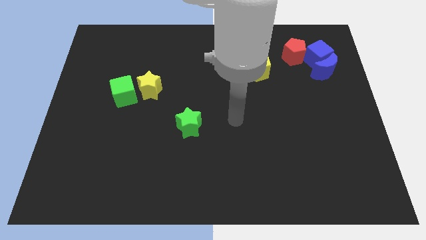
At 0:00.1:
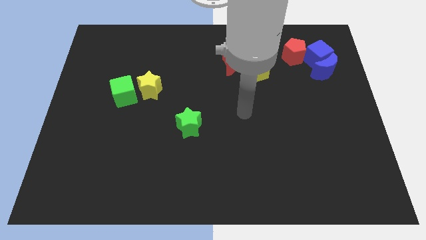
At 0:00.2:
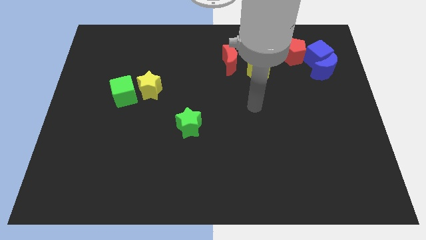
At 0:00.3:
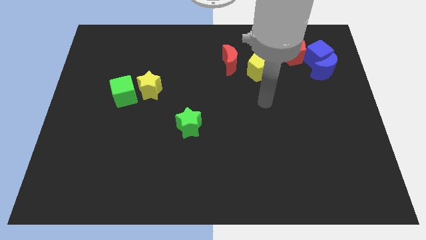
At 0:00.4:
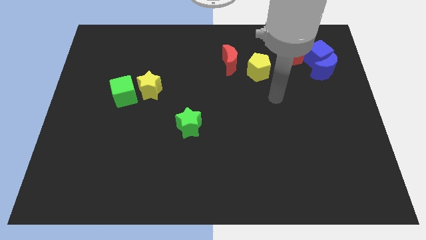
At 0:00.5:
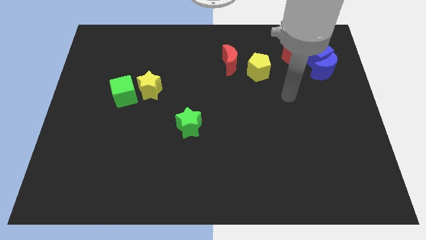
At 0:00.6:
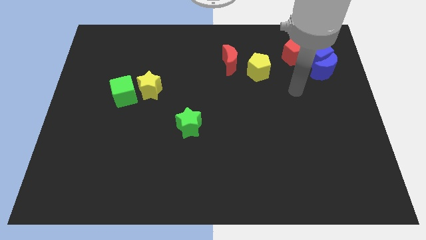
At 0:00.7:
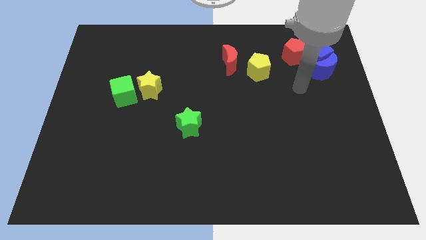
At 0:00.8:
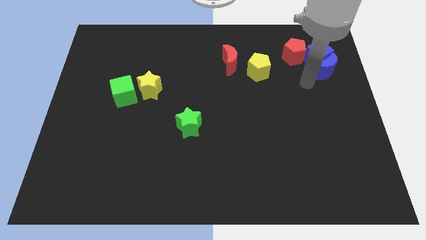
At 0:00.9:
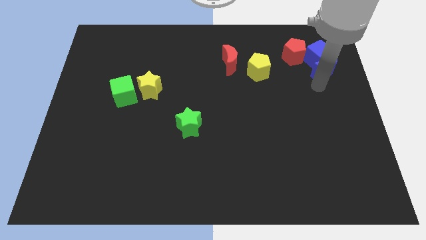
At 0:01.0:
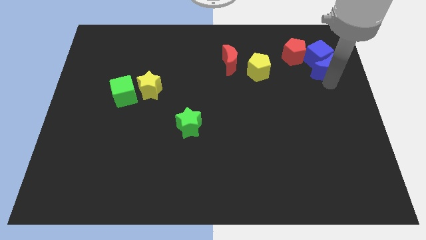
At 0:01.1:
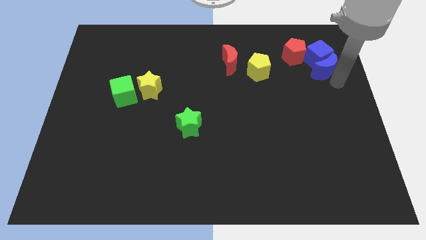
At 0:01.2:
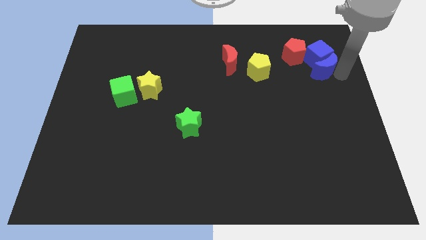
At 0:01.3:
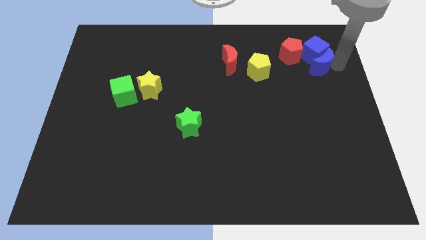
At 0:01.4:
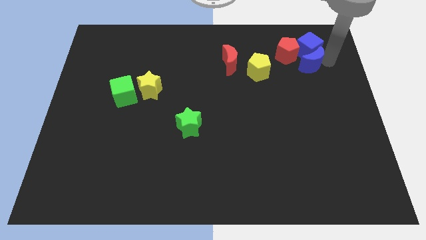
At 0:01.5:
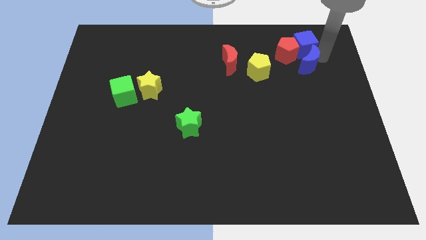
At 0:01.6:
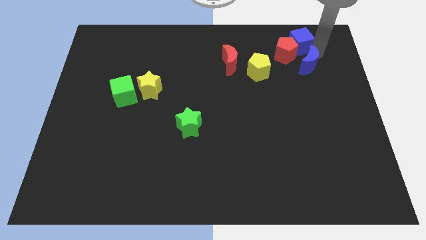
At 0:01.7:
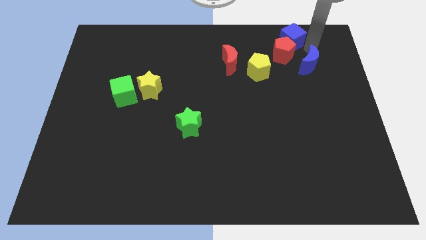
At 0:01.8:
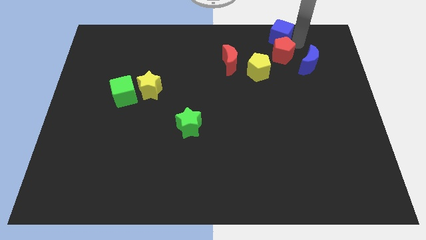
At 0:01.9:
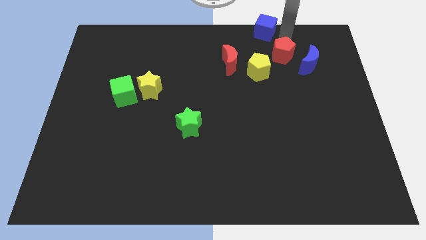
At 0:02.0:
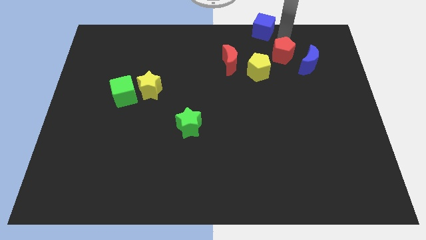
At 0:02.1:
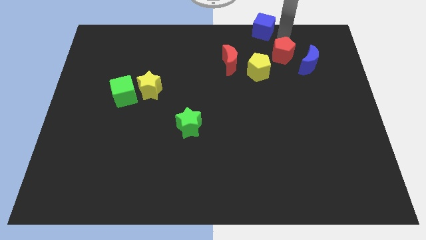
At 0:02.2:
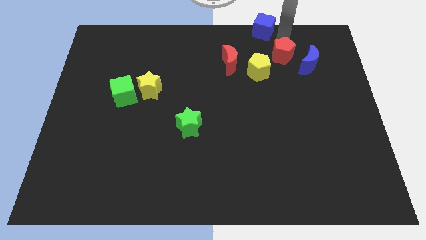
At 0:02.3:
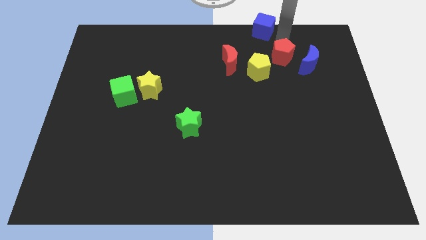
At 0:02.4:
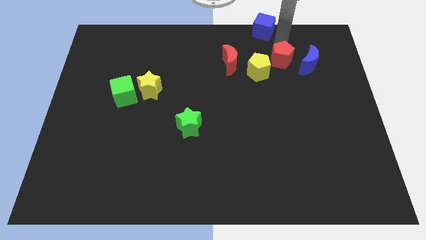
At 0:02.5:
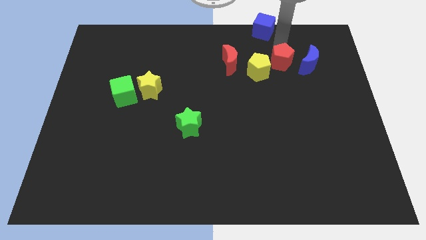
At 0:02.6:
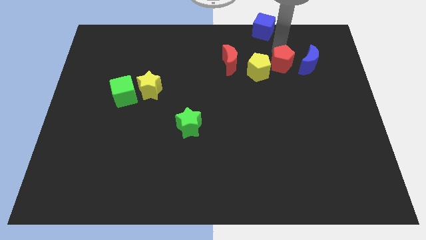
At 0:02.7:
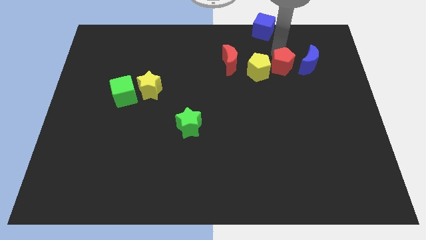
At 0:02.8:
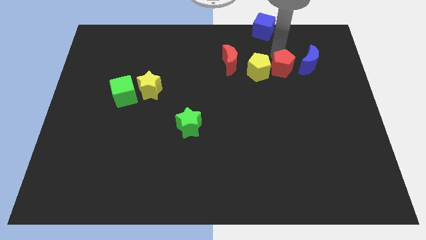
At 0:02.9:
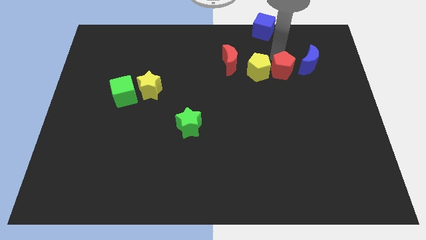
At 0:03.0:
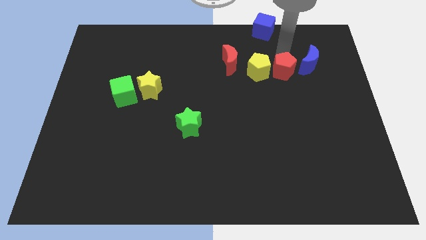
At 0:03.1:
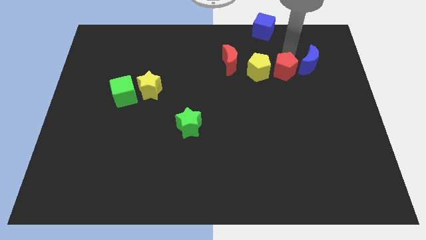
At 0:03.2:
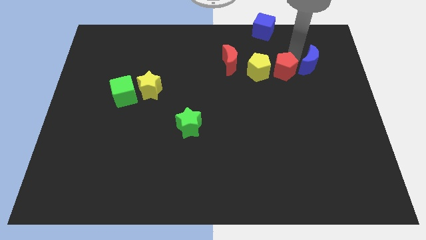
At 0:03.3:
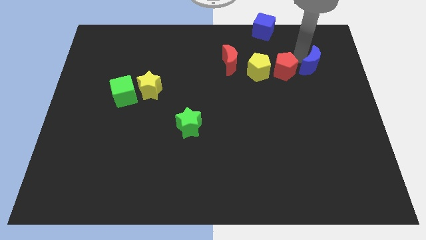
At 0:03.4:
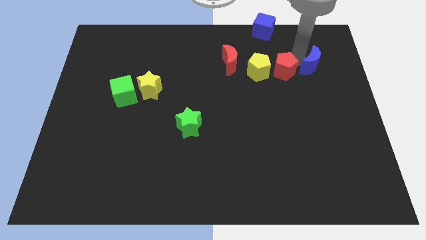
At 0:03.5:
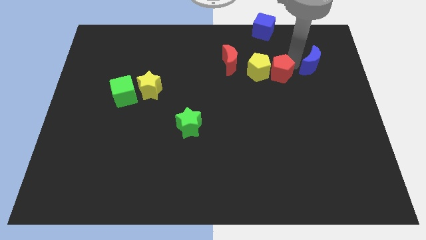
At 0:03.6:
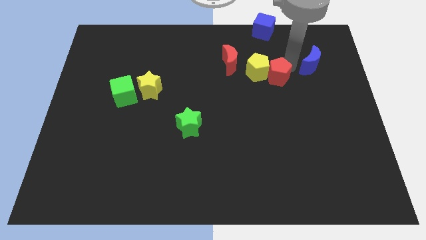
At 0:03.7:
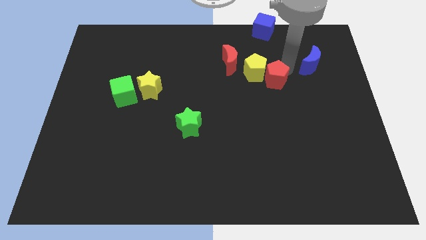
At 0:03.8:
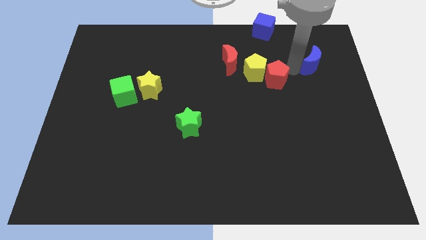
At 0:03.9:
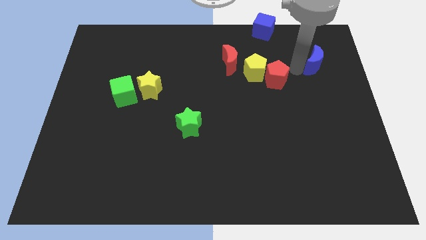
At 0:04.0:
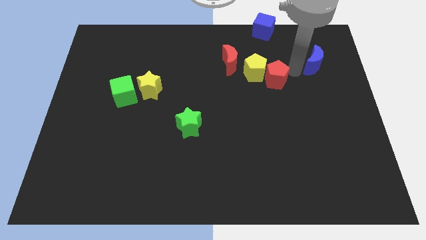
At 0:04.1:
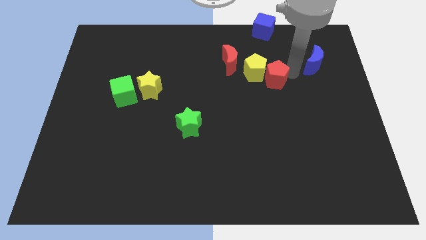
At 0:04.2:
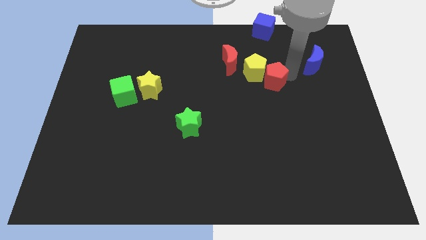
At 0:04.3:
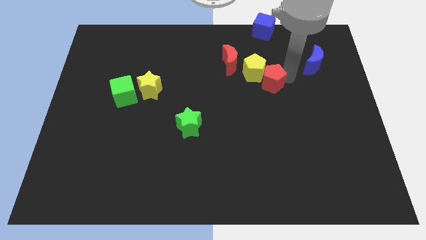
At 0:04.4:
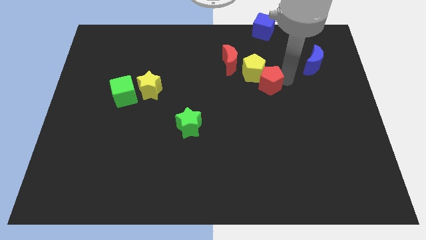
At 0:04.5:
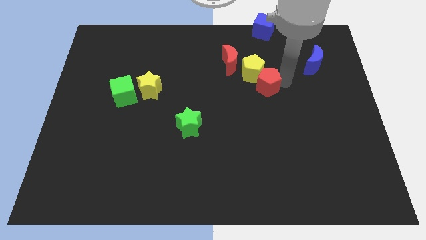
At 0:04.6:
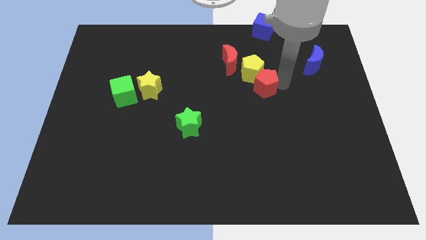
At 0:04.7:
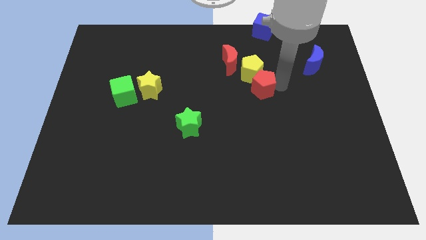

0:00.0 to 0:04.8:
move the red pentagon to the middle of the board

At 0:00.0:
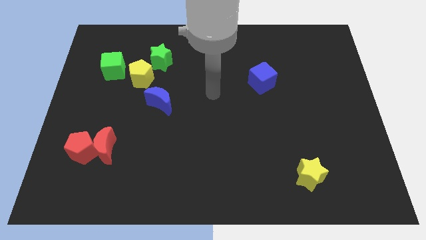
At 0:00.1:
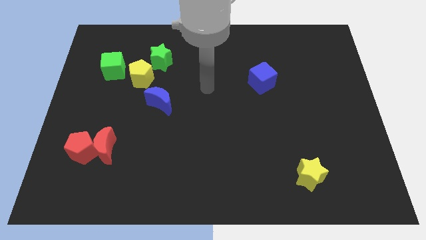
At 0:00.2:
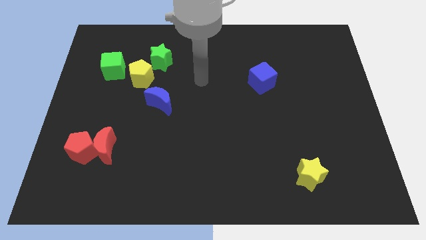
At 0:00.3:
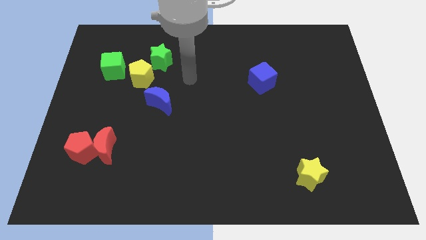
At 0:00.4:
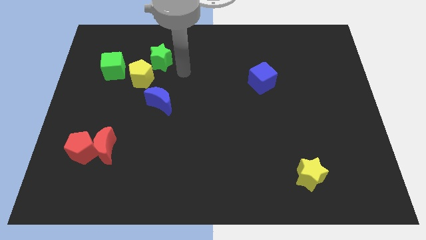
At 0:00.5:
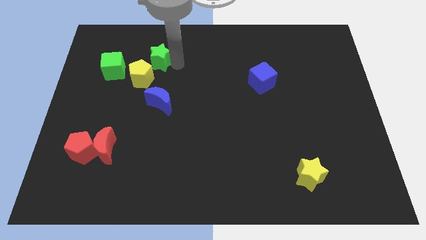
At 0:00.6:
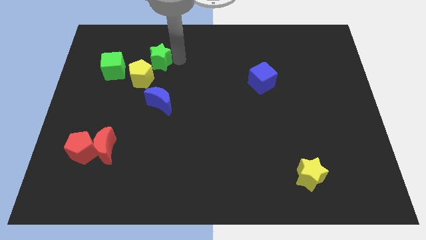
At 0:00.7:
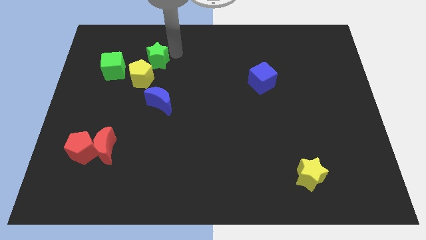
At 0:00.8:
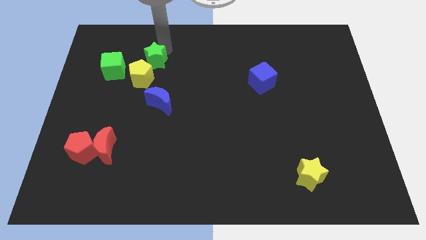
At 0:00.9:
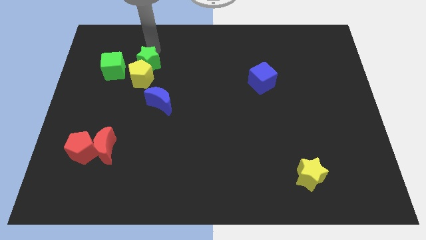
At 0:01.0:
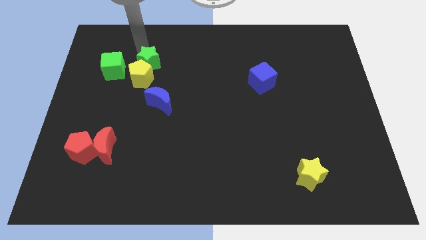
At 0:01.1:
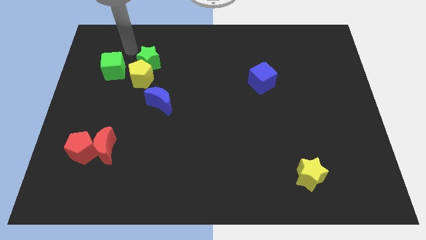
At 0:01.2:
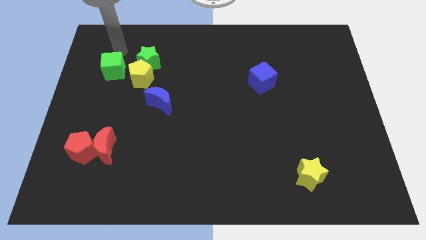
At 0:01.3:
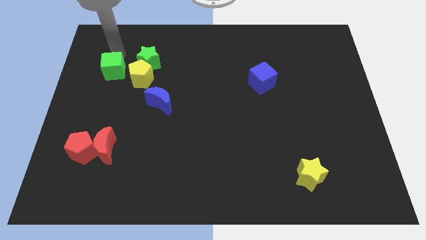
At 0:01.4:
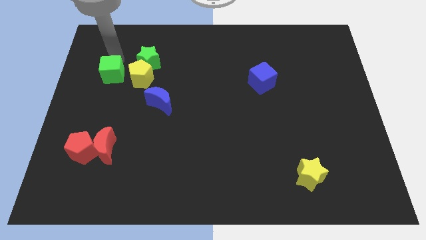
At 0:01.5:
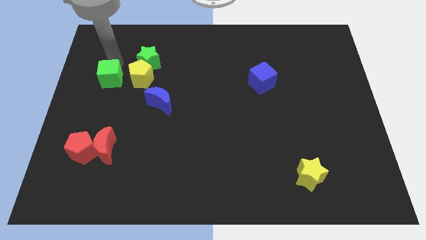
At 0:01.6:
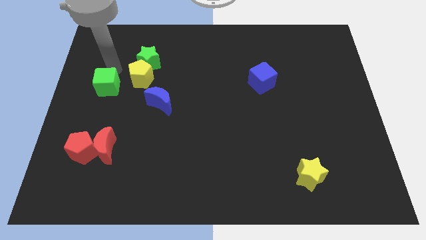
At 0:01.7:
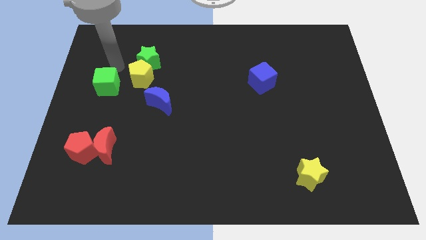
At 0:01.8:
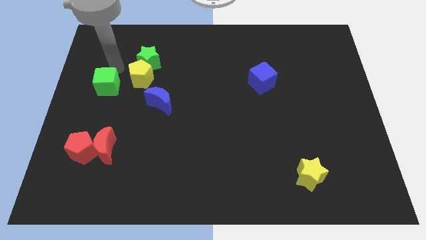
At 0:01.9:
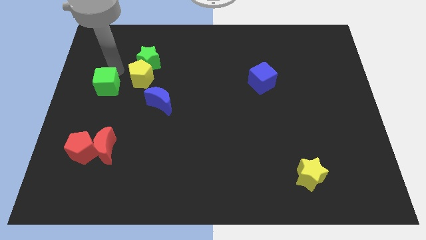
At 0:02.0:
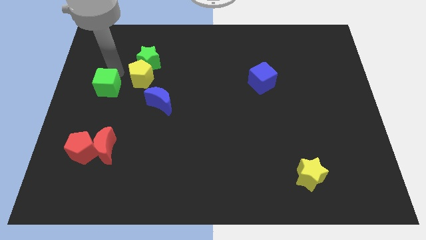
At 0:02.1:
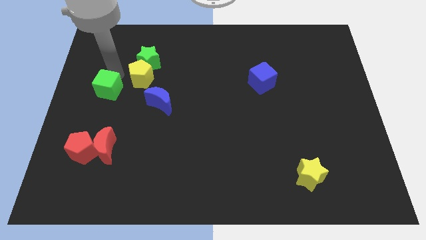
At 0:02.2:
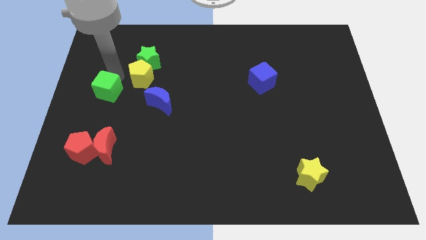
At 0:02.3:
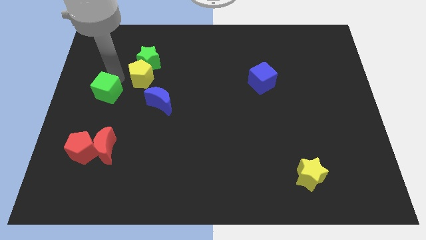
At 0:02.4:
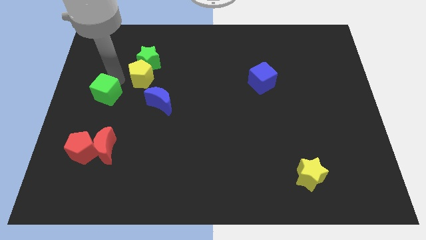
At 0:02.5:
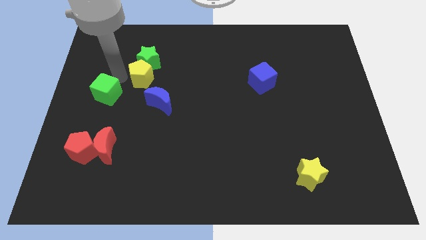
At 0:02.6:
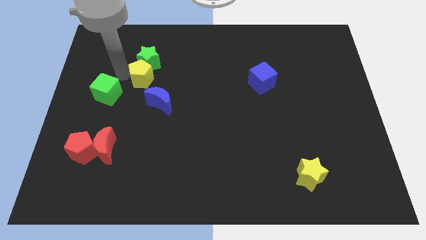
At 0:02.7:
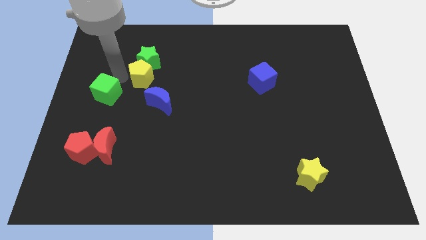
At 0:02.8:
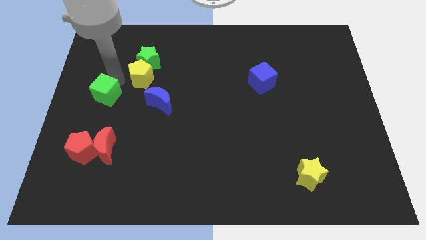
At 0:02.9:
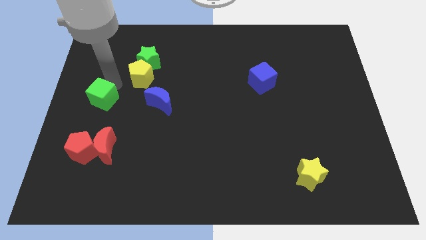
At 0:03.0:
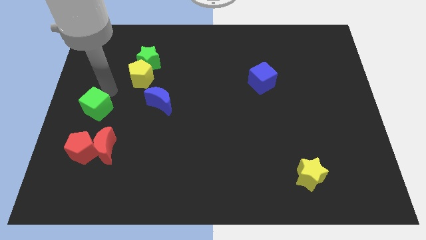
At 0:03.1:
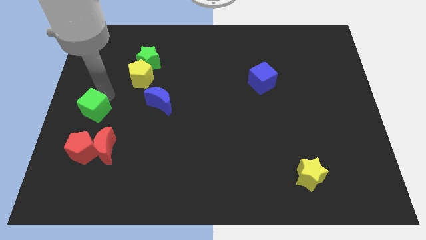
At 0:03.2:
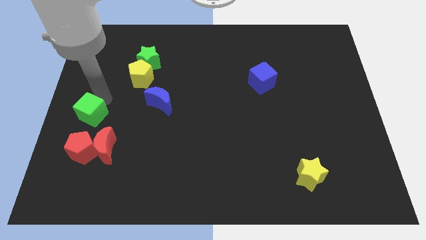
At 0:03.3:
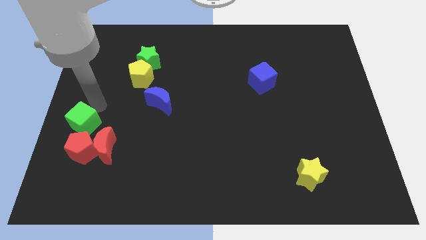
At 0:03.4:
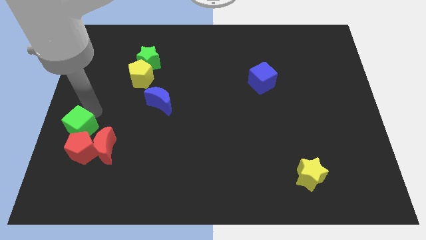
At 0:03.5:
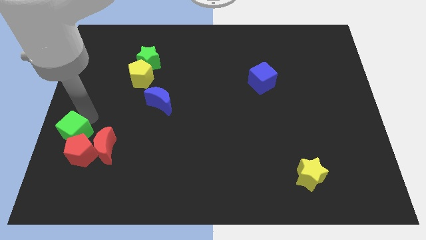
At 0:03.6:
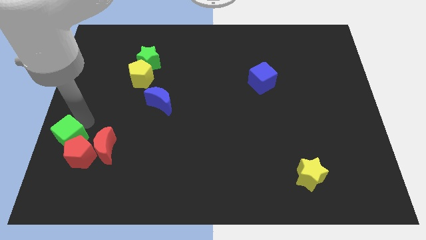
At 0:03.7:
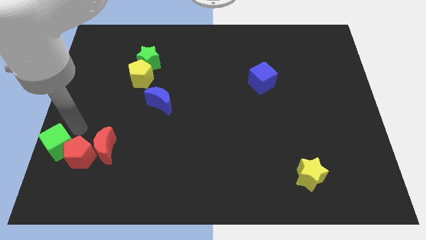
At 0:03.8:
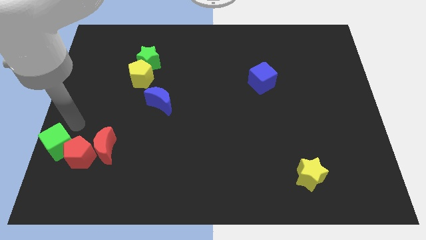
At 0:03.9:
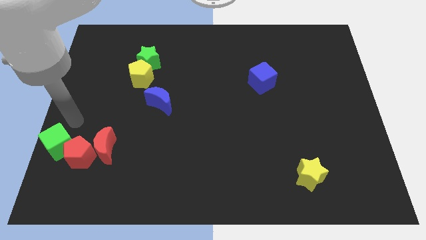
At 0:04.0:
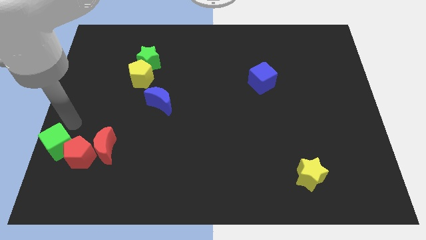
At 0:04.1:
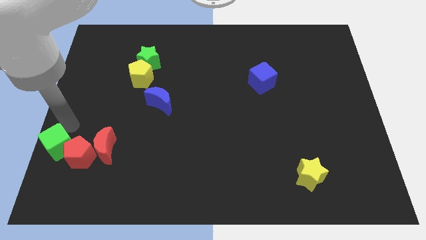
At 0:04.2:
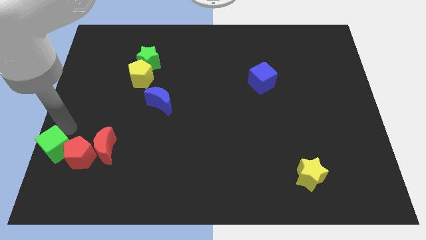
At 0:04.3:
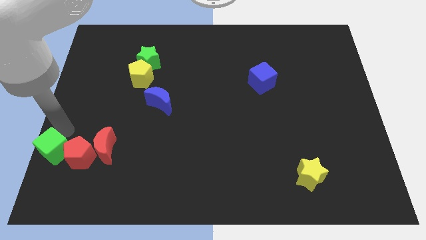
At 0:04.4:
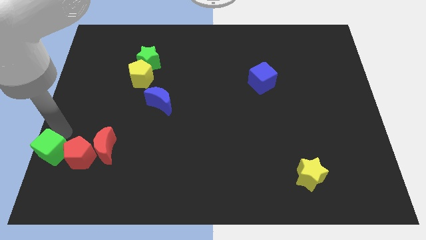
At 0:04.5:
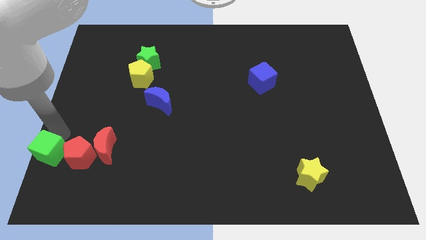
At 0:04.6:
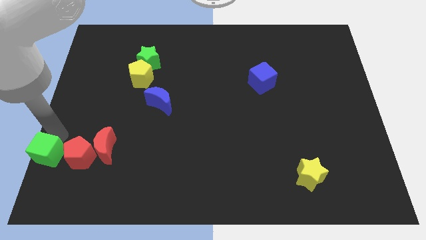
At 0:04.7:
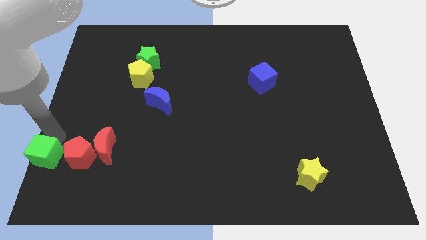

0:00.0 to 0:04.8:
slide the green cube to the bottom left corner
